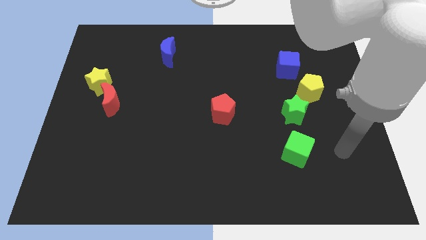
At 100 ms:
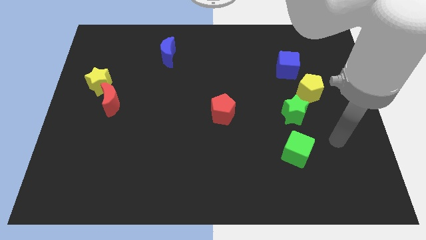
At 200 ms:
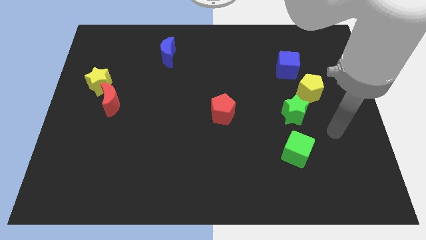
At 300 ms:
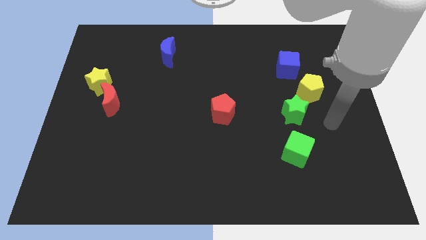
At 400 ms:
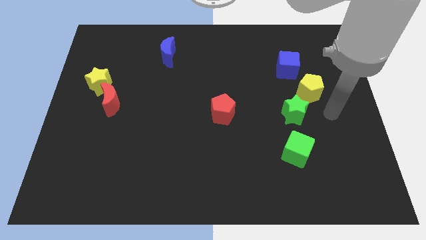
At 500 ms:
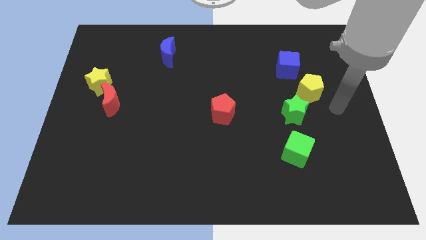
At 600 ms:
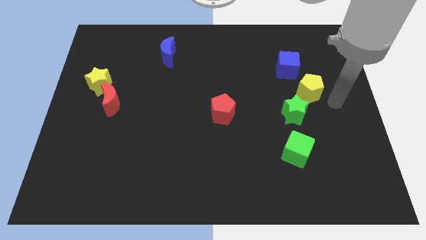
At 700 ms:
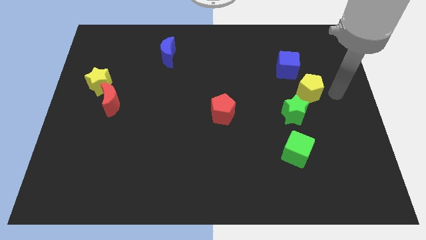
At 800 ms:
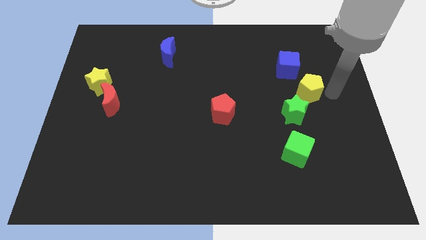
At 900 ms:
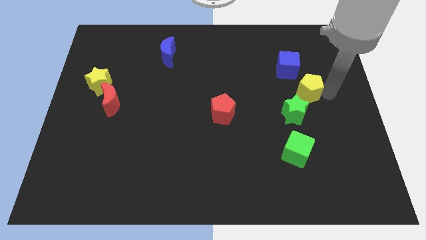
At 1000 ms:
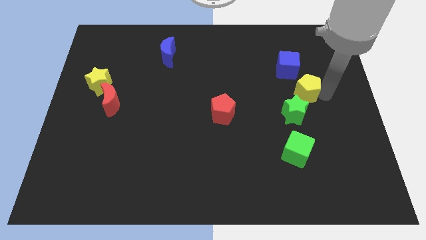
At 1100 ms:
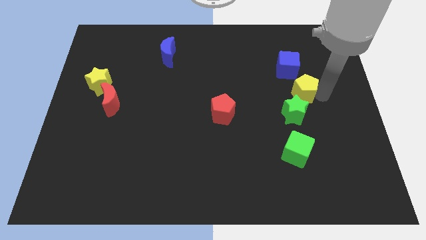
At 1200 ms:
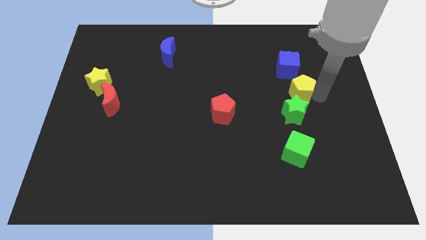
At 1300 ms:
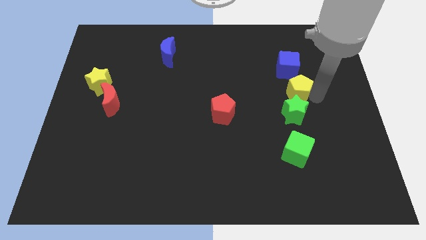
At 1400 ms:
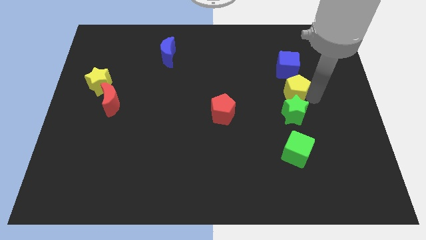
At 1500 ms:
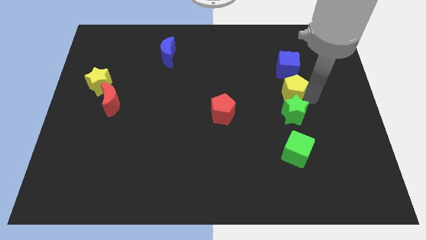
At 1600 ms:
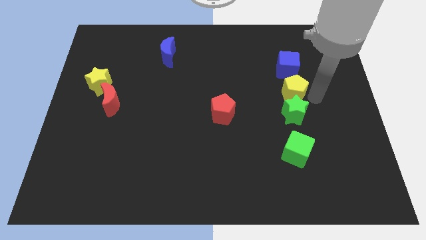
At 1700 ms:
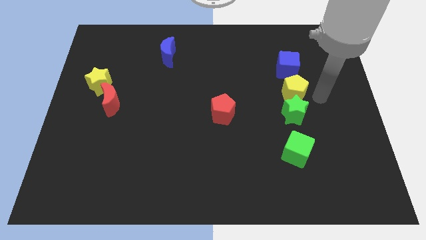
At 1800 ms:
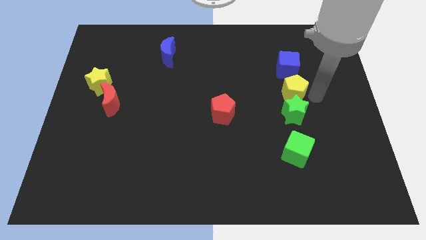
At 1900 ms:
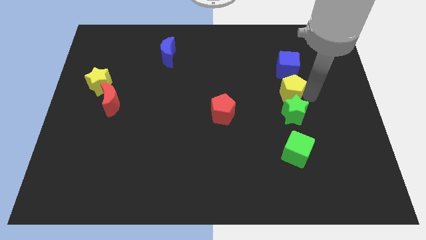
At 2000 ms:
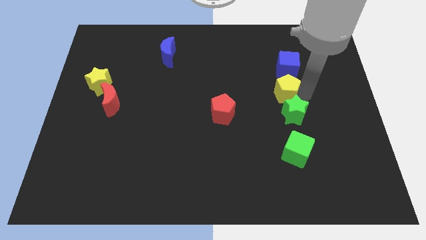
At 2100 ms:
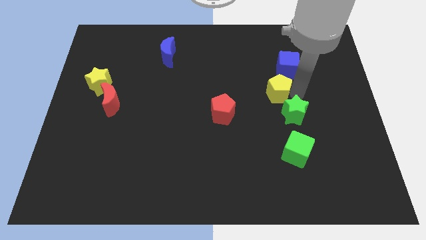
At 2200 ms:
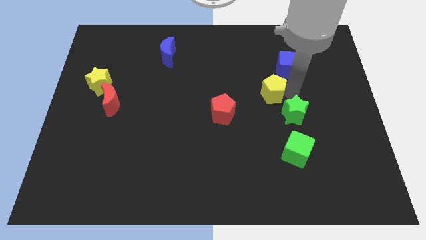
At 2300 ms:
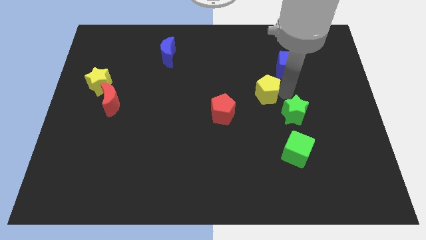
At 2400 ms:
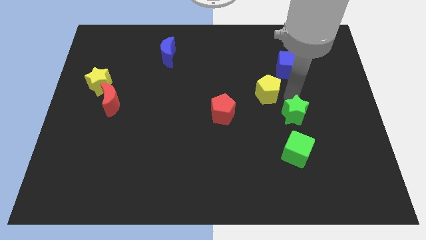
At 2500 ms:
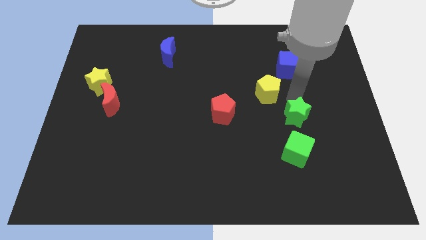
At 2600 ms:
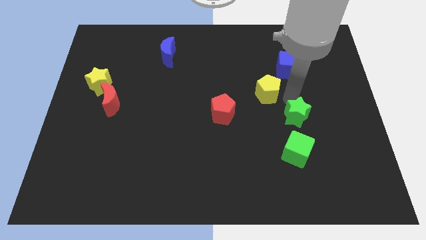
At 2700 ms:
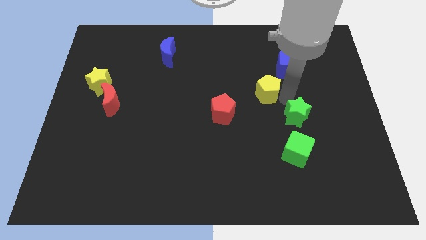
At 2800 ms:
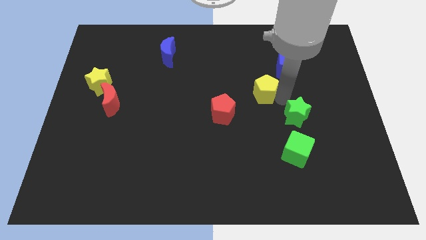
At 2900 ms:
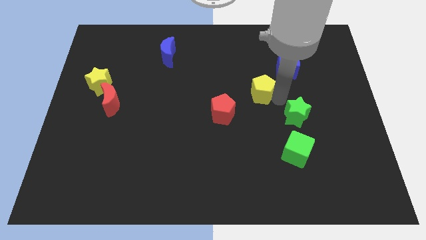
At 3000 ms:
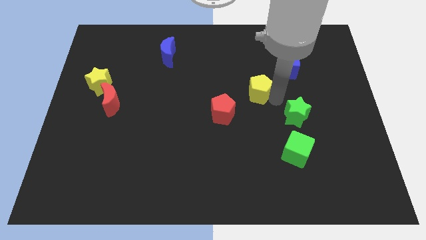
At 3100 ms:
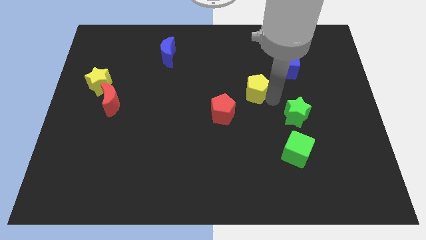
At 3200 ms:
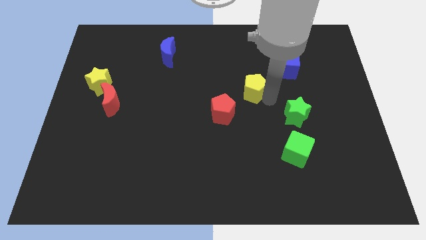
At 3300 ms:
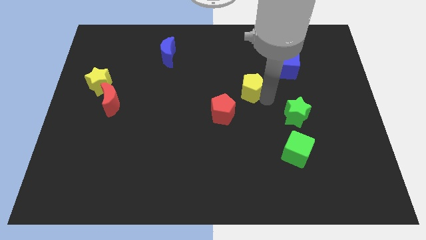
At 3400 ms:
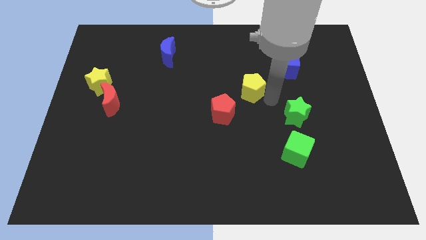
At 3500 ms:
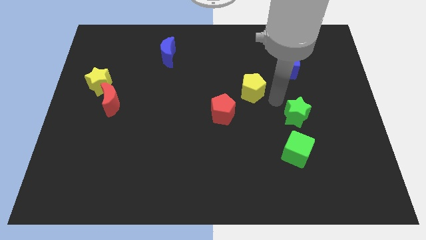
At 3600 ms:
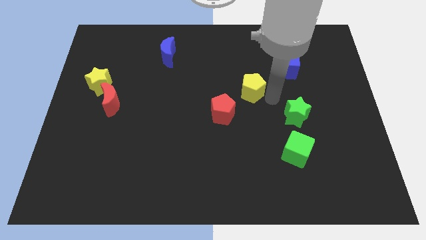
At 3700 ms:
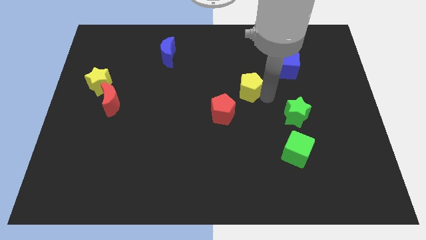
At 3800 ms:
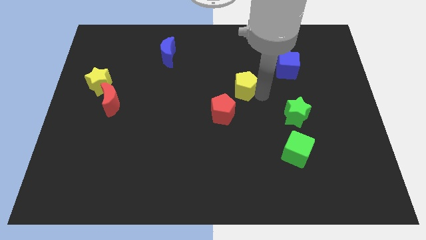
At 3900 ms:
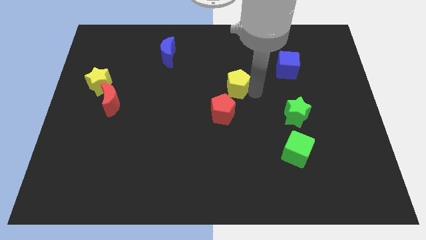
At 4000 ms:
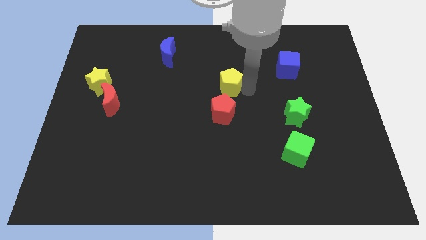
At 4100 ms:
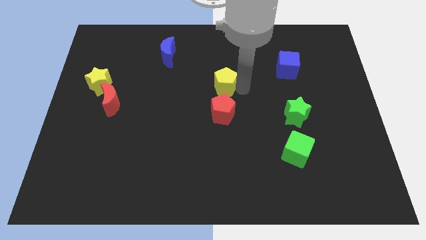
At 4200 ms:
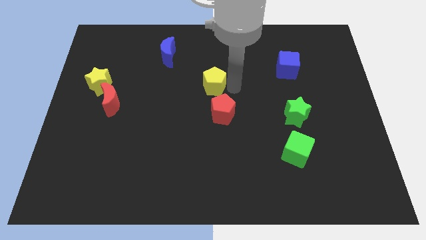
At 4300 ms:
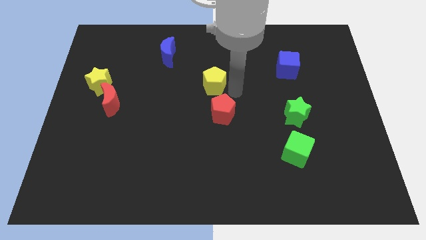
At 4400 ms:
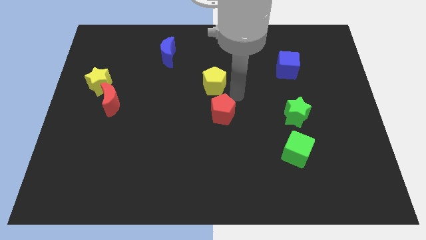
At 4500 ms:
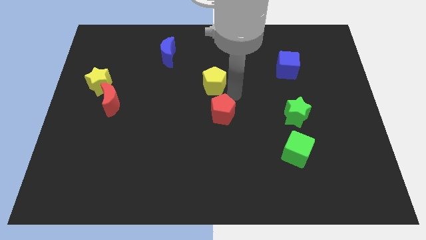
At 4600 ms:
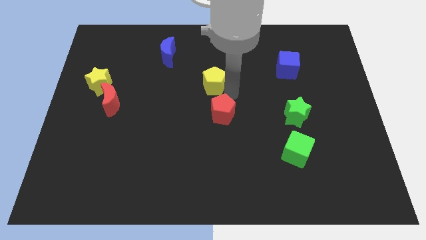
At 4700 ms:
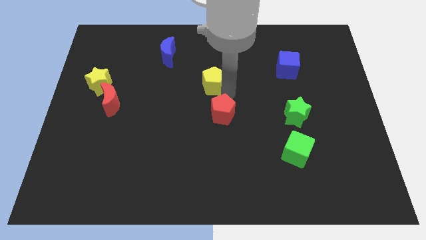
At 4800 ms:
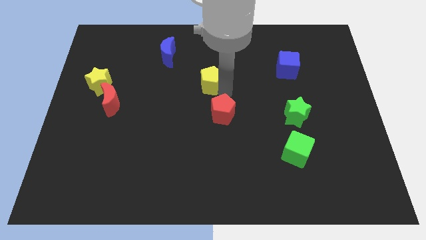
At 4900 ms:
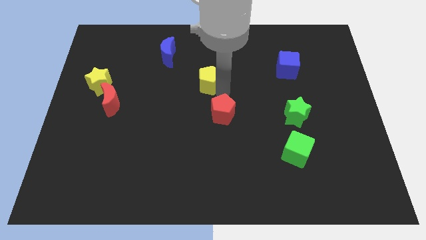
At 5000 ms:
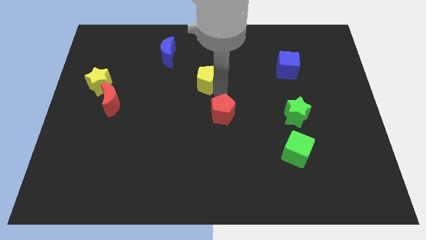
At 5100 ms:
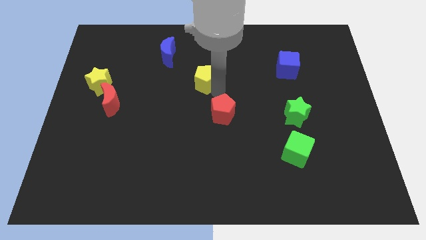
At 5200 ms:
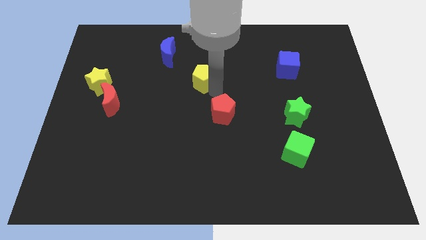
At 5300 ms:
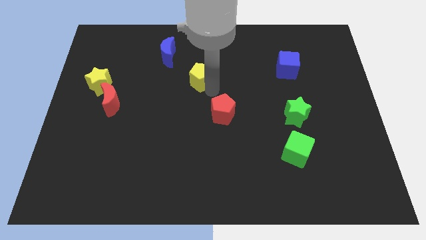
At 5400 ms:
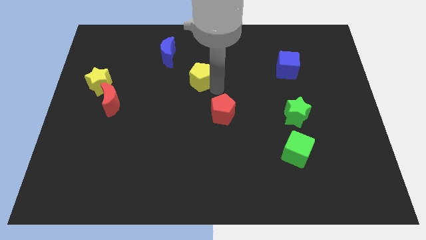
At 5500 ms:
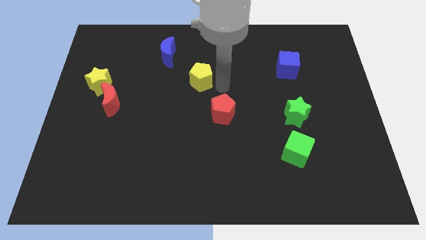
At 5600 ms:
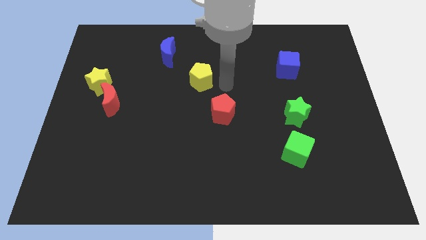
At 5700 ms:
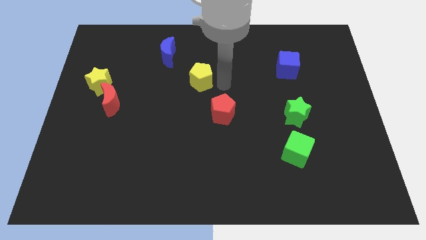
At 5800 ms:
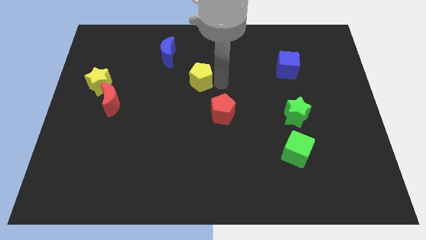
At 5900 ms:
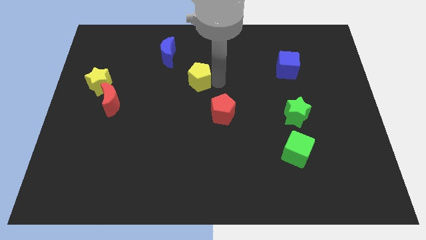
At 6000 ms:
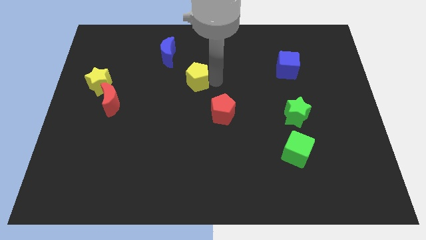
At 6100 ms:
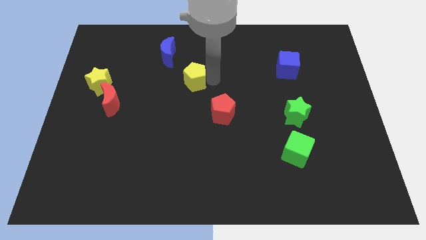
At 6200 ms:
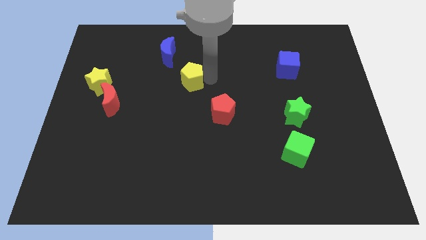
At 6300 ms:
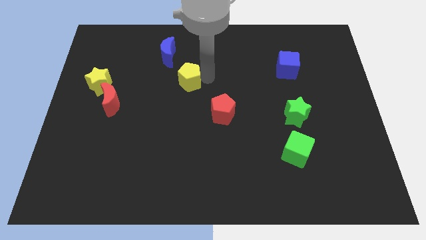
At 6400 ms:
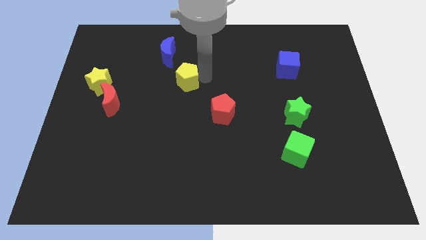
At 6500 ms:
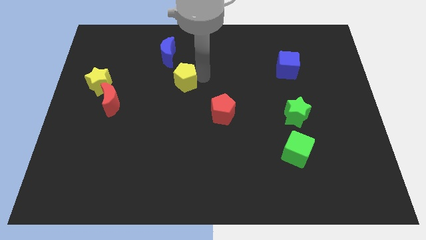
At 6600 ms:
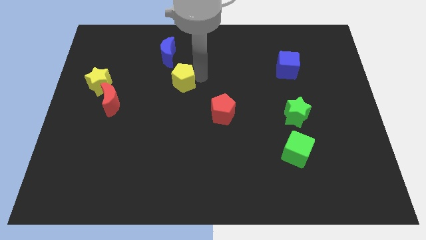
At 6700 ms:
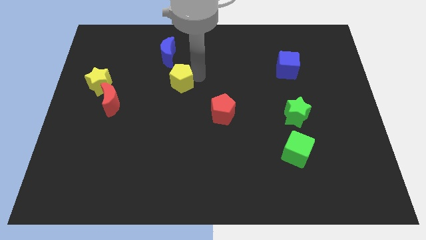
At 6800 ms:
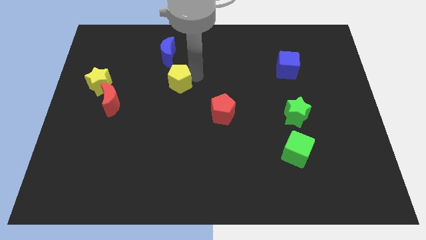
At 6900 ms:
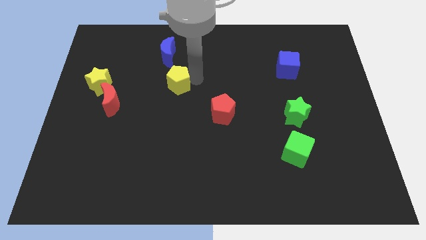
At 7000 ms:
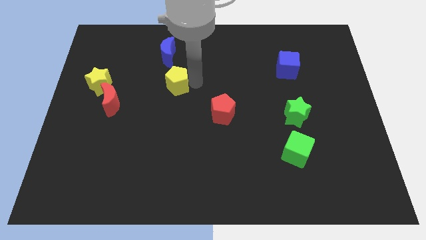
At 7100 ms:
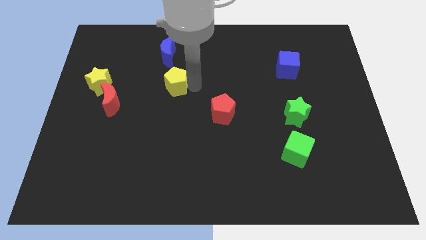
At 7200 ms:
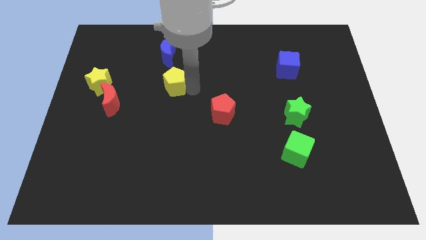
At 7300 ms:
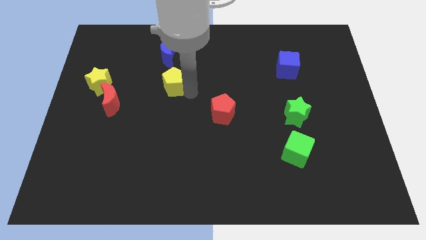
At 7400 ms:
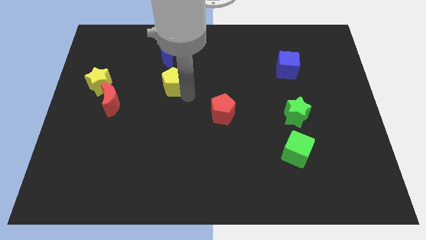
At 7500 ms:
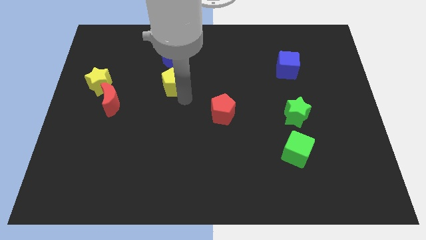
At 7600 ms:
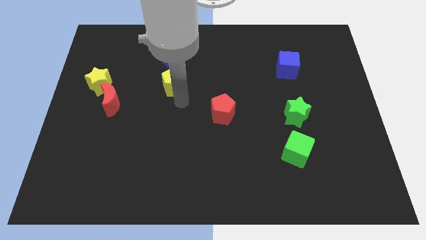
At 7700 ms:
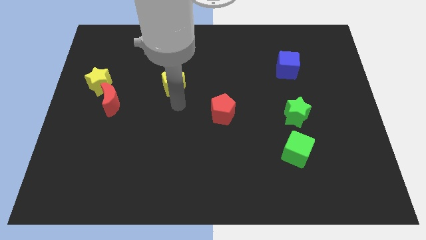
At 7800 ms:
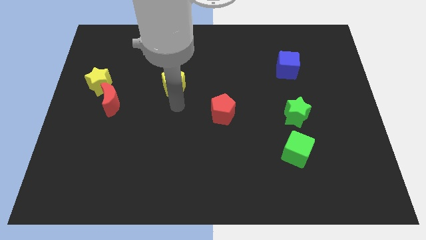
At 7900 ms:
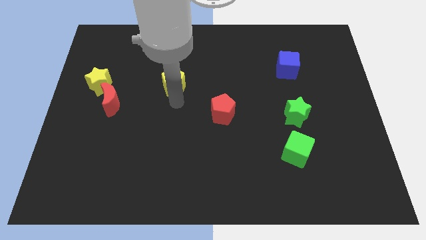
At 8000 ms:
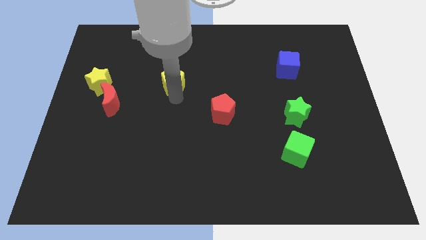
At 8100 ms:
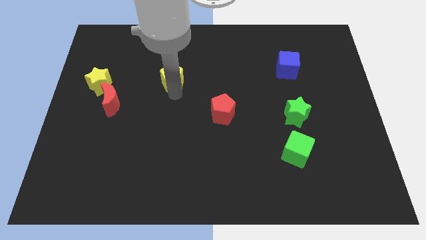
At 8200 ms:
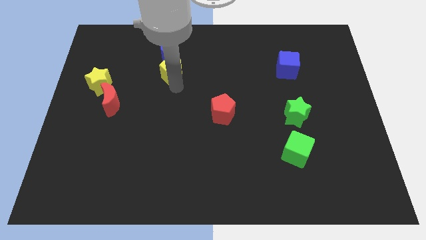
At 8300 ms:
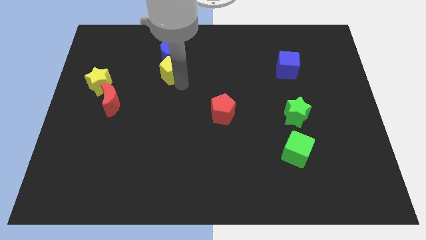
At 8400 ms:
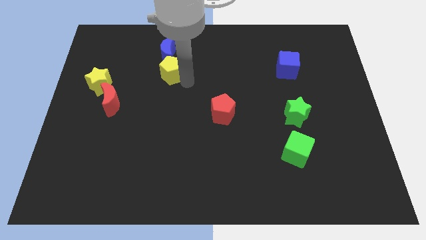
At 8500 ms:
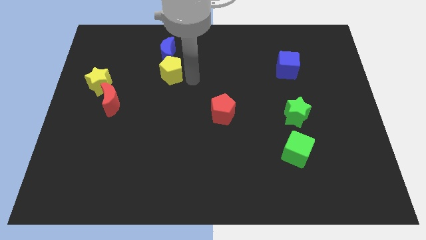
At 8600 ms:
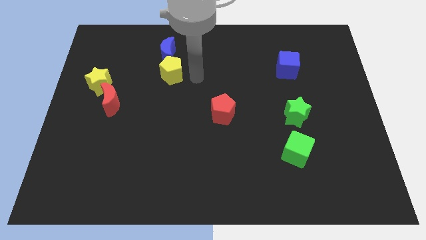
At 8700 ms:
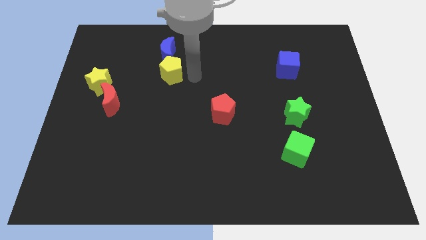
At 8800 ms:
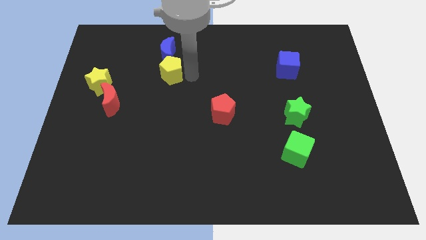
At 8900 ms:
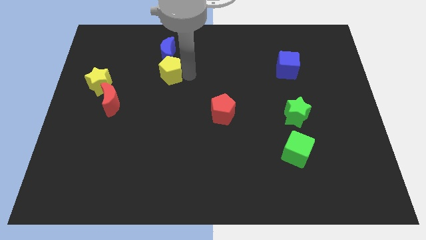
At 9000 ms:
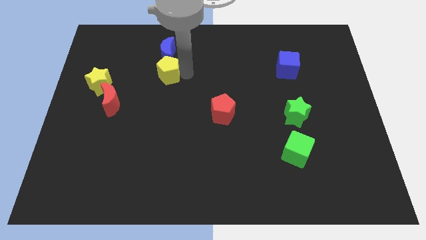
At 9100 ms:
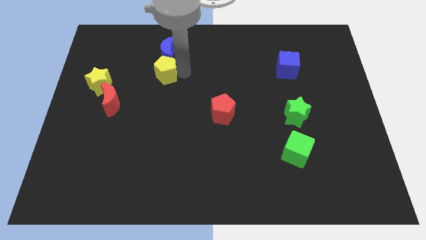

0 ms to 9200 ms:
push the yellow pentagon to the bottom left side of the blue moon
